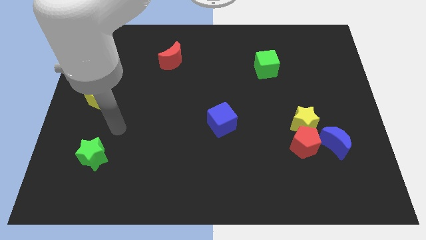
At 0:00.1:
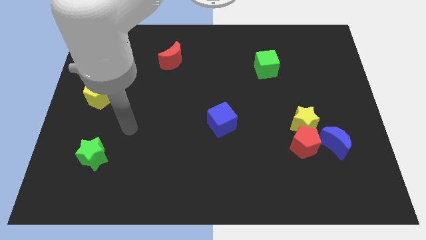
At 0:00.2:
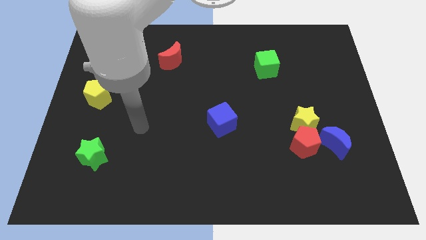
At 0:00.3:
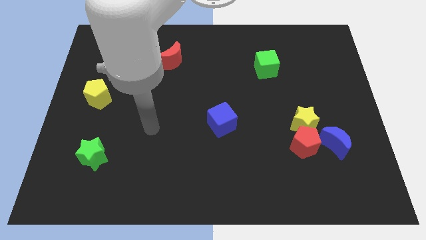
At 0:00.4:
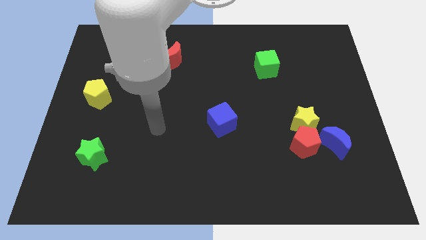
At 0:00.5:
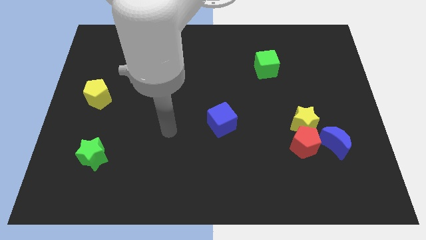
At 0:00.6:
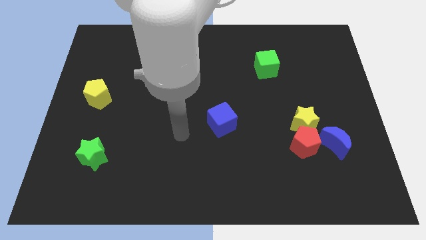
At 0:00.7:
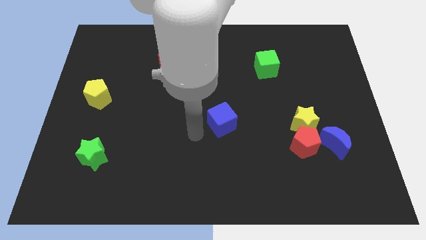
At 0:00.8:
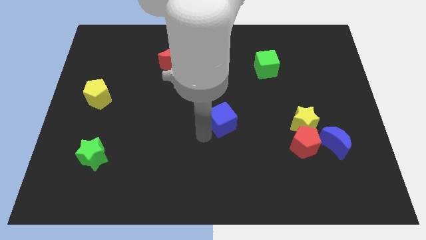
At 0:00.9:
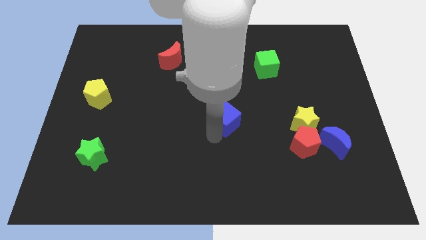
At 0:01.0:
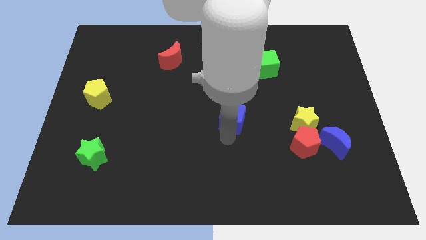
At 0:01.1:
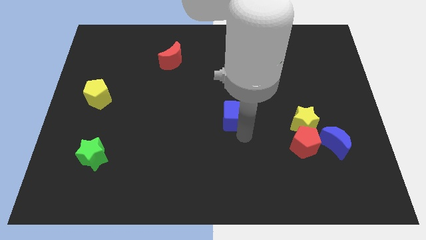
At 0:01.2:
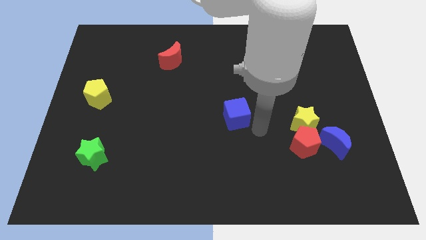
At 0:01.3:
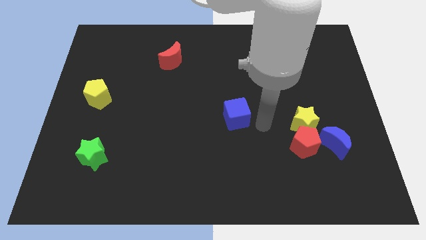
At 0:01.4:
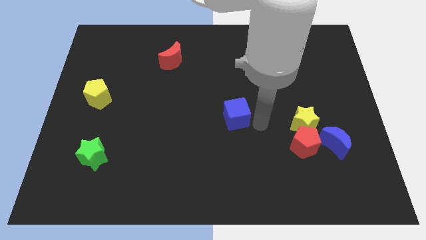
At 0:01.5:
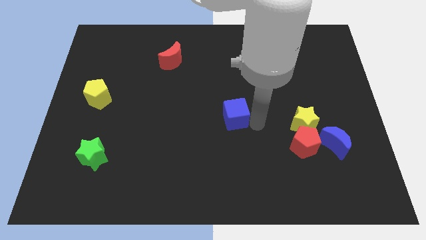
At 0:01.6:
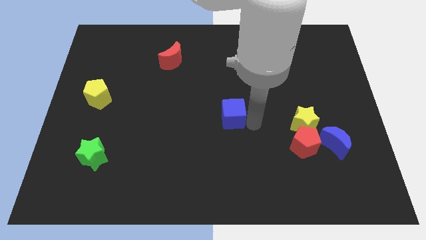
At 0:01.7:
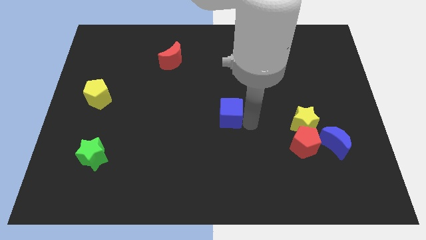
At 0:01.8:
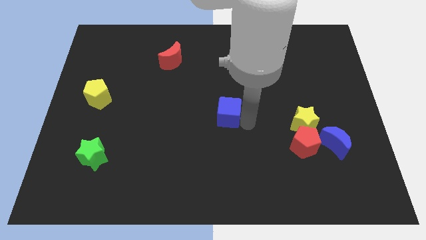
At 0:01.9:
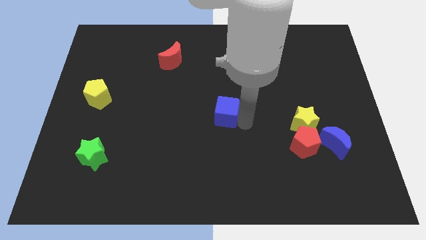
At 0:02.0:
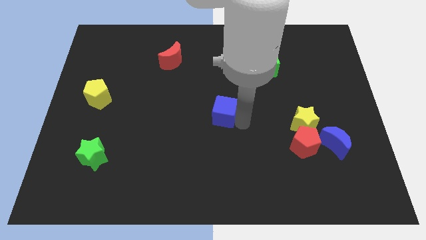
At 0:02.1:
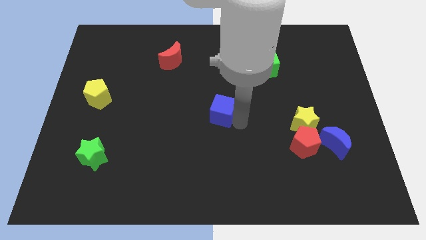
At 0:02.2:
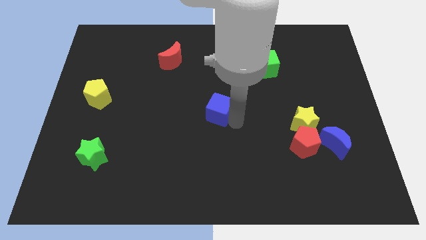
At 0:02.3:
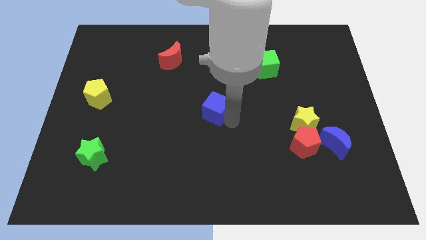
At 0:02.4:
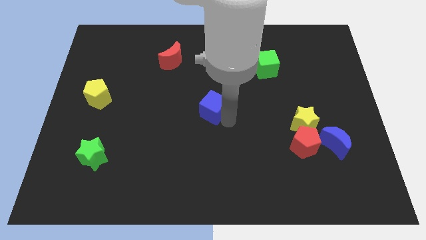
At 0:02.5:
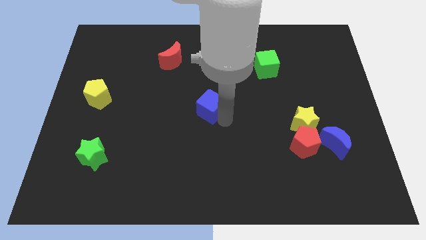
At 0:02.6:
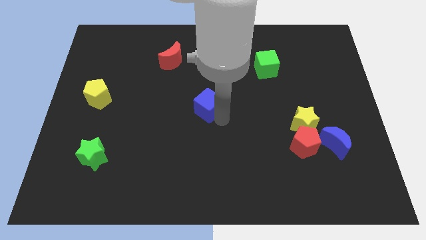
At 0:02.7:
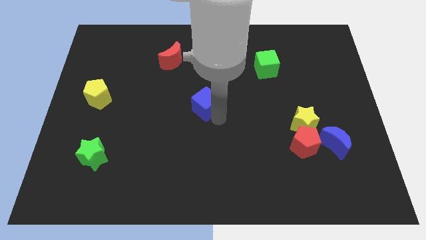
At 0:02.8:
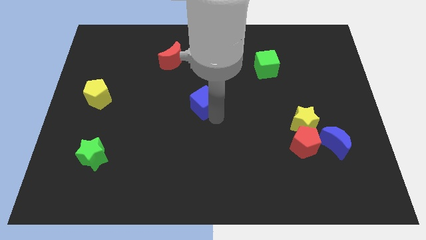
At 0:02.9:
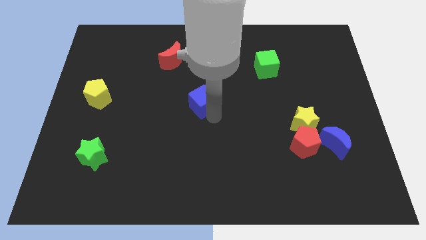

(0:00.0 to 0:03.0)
slightly slide the blue cube upwards and to the left diagonally

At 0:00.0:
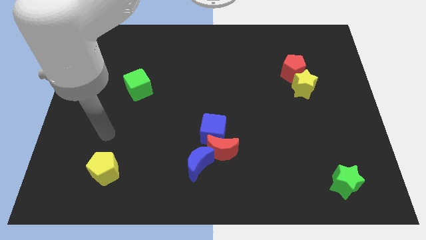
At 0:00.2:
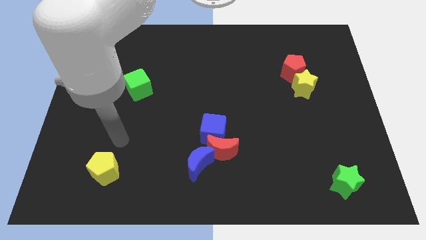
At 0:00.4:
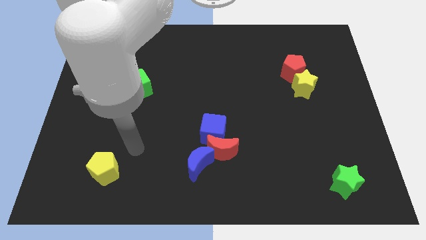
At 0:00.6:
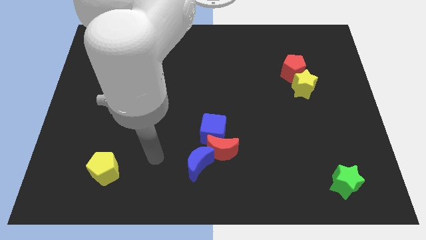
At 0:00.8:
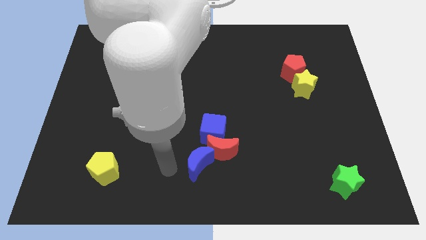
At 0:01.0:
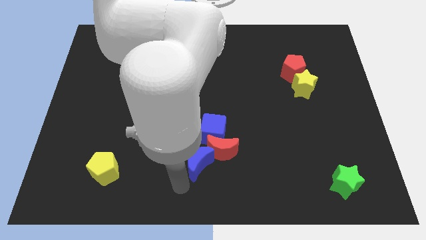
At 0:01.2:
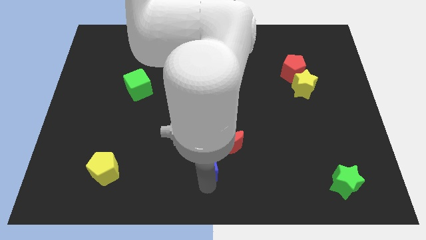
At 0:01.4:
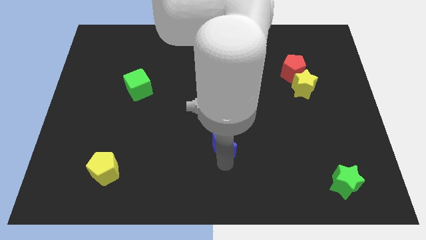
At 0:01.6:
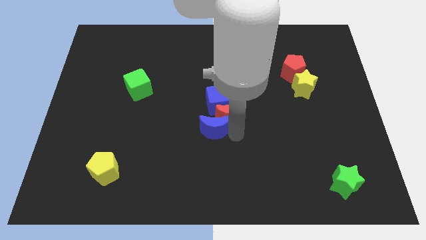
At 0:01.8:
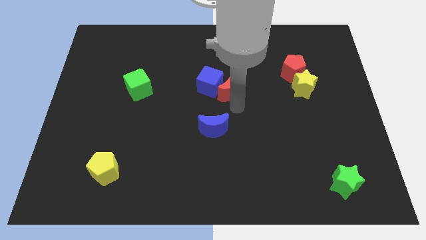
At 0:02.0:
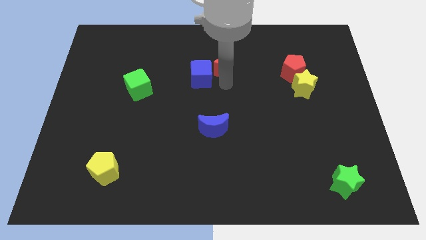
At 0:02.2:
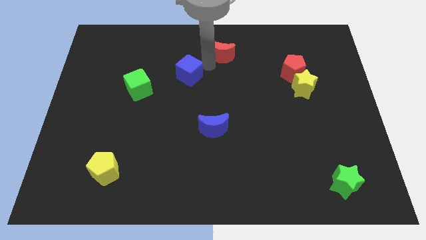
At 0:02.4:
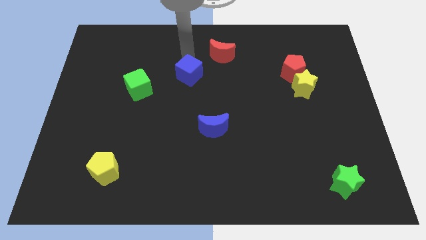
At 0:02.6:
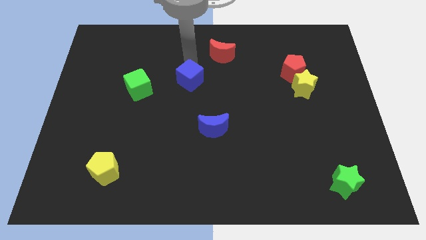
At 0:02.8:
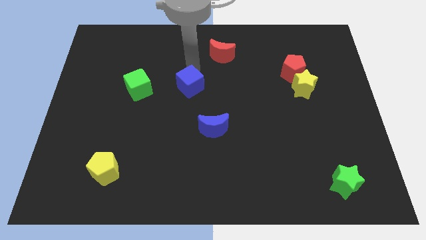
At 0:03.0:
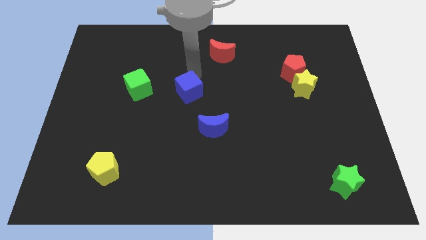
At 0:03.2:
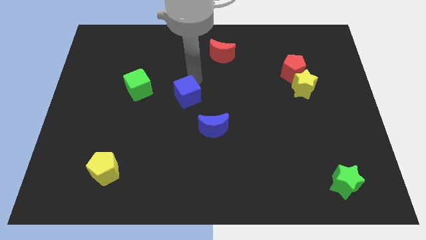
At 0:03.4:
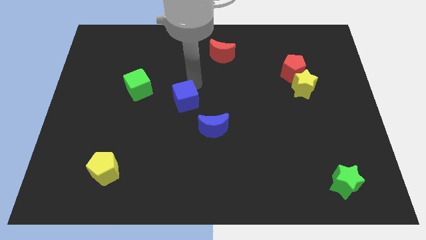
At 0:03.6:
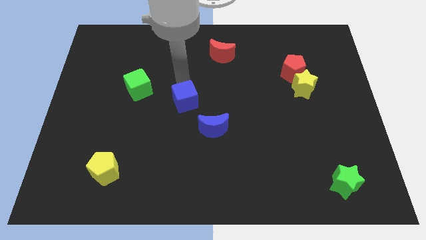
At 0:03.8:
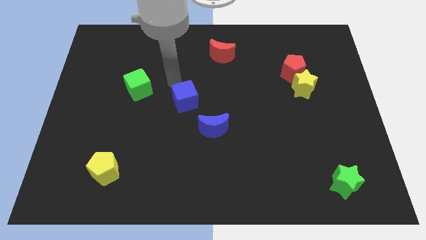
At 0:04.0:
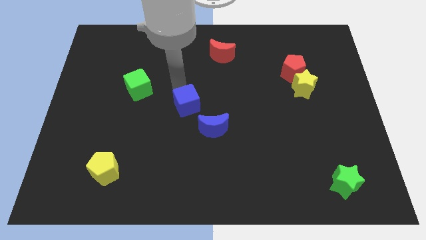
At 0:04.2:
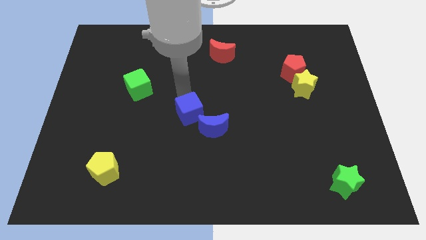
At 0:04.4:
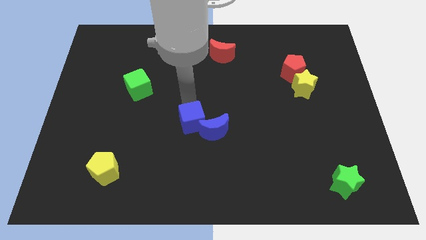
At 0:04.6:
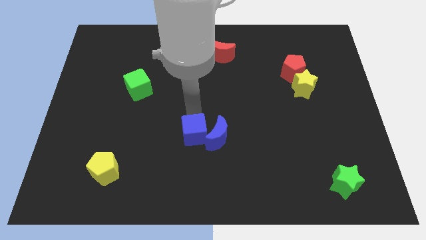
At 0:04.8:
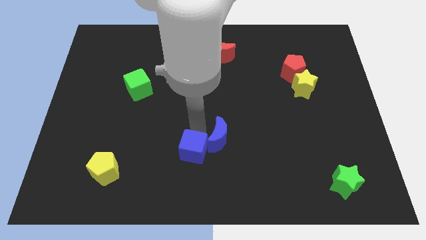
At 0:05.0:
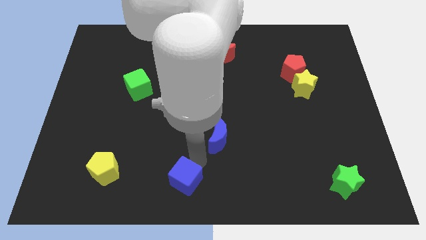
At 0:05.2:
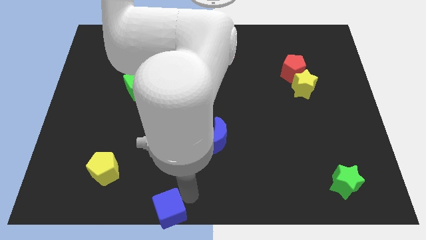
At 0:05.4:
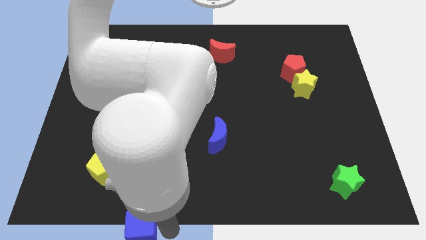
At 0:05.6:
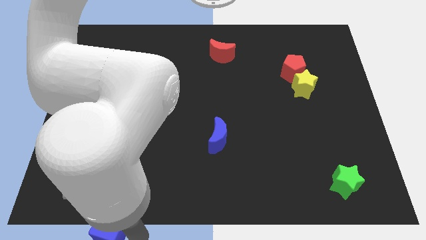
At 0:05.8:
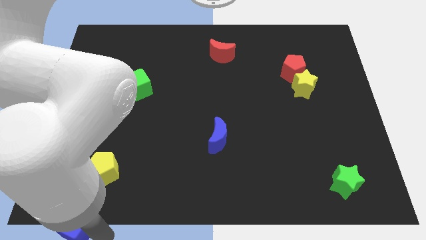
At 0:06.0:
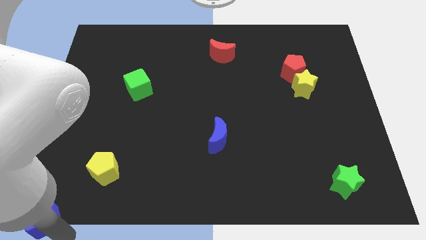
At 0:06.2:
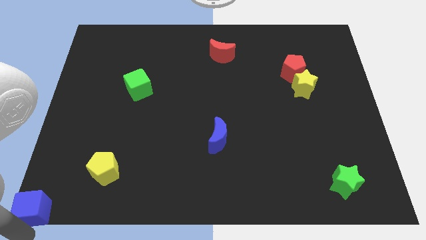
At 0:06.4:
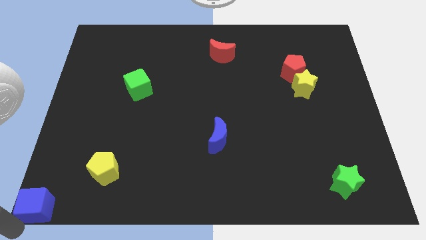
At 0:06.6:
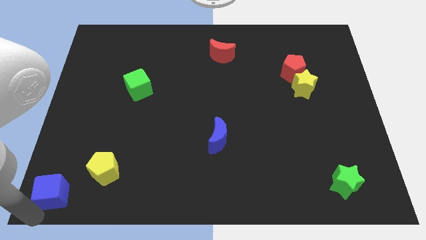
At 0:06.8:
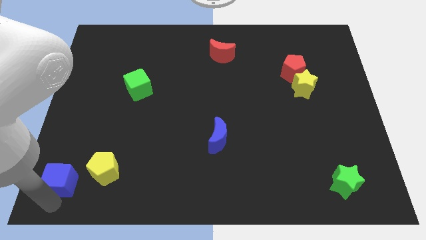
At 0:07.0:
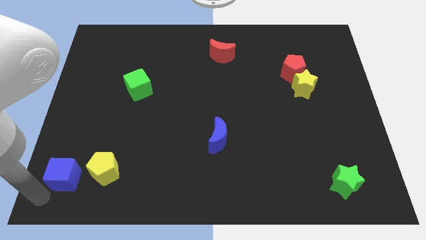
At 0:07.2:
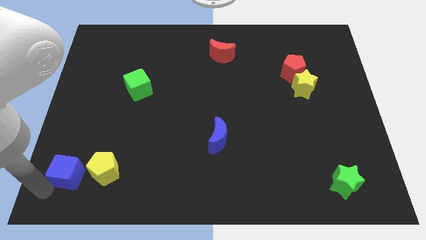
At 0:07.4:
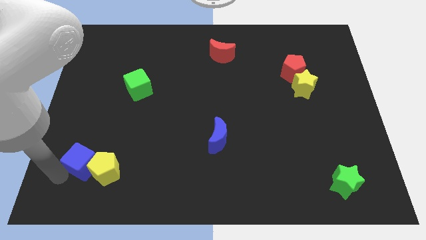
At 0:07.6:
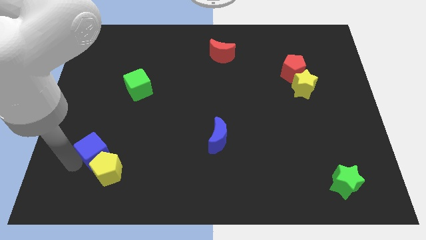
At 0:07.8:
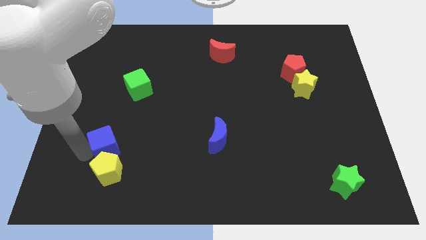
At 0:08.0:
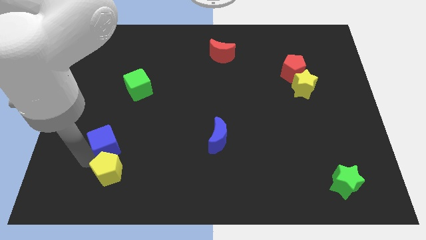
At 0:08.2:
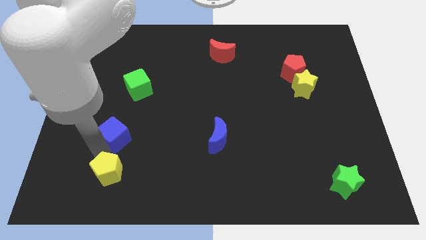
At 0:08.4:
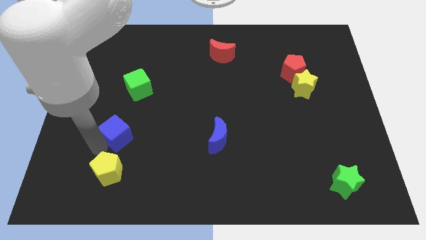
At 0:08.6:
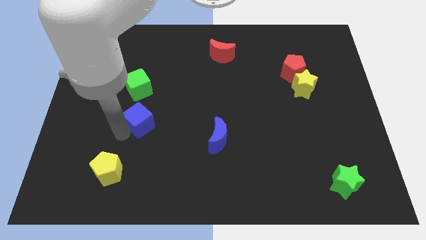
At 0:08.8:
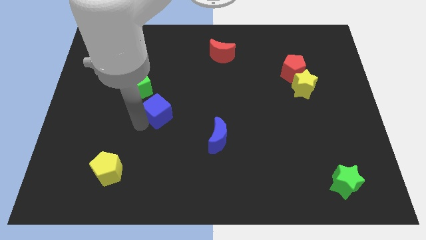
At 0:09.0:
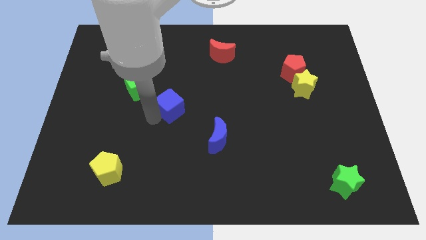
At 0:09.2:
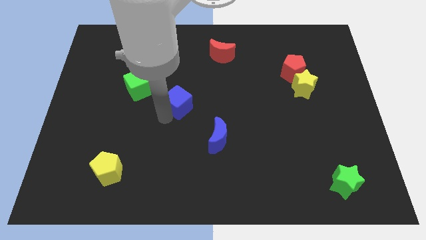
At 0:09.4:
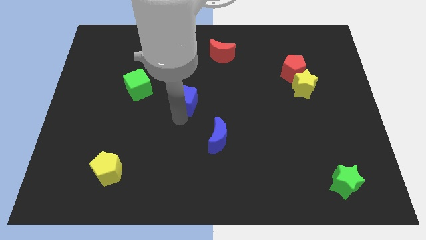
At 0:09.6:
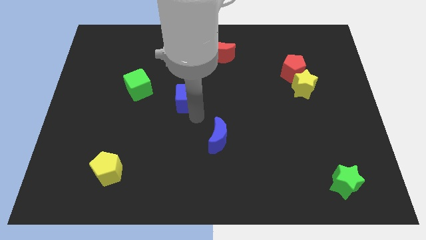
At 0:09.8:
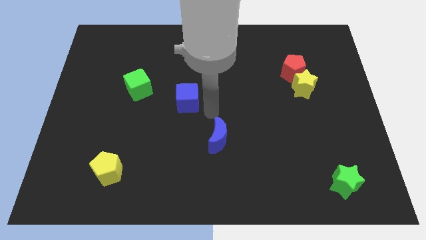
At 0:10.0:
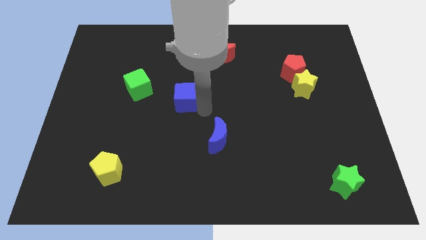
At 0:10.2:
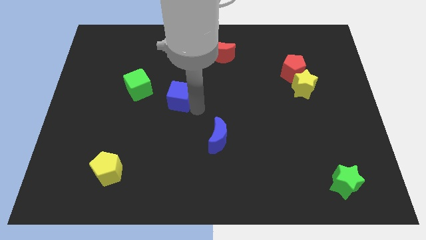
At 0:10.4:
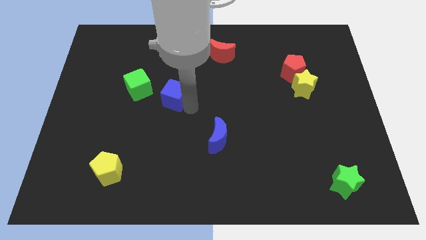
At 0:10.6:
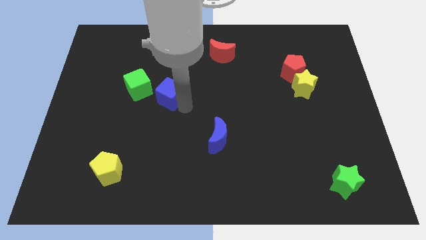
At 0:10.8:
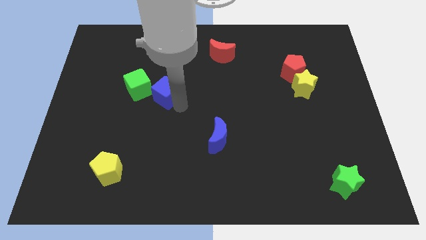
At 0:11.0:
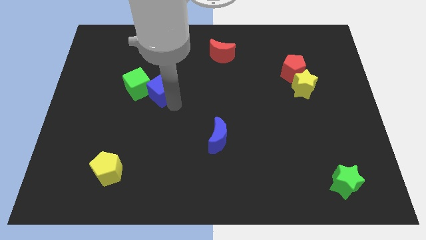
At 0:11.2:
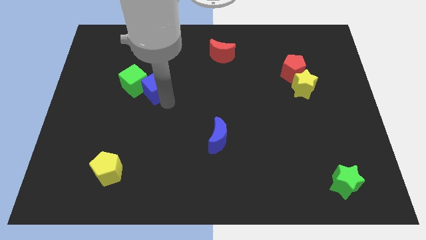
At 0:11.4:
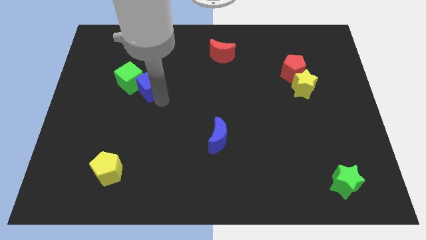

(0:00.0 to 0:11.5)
push the blue cube diagonally upwards and to the left
